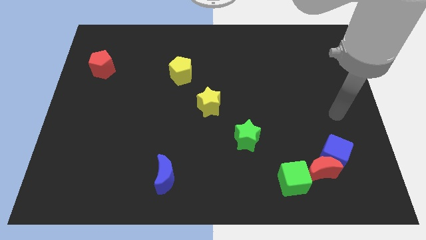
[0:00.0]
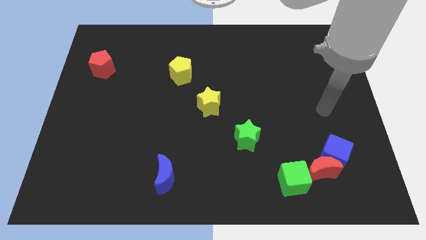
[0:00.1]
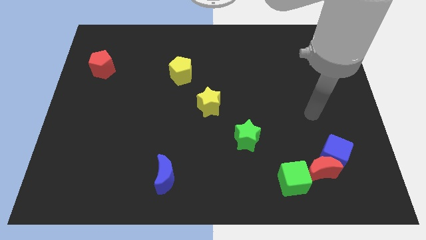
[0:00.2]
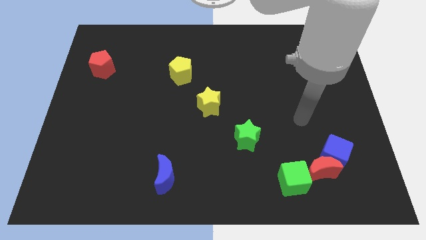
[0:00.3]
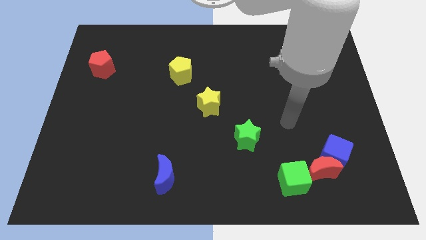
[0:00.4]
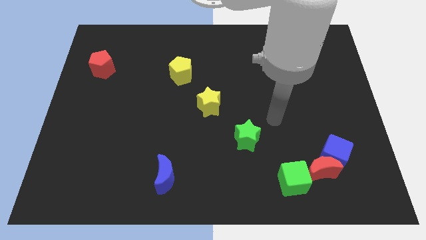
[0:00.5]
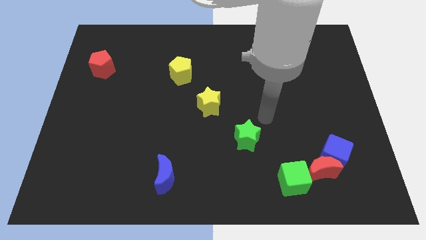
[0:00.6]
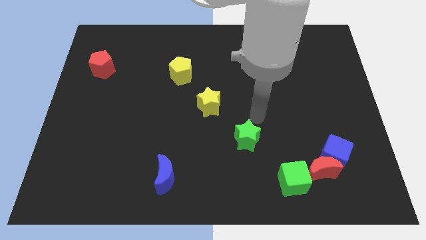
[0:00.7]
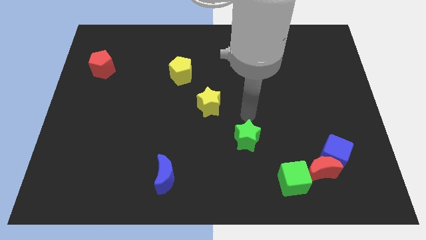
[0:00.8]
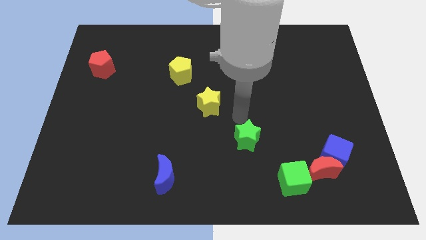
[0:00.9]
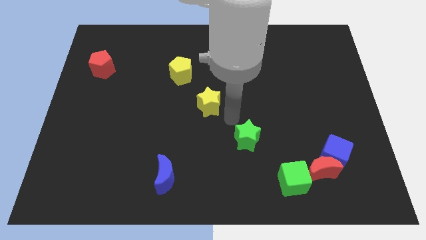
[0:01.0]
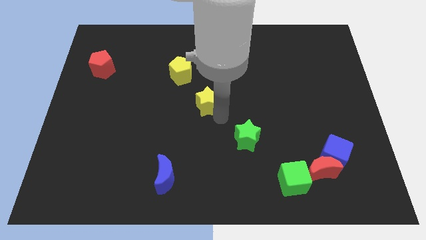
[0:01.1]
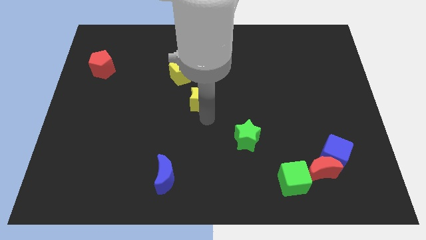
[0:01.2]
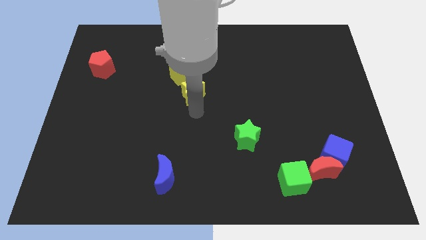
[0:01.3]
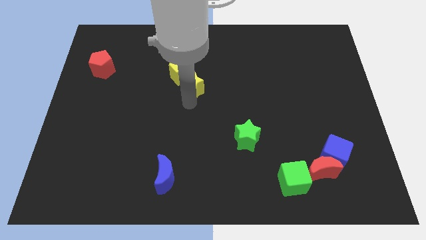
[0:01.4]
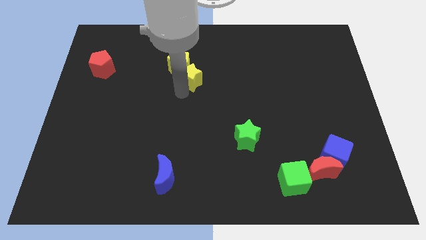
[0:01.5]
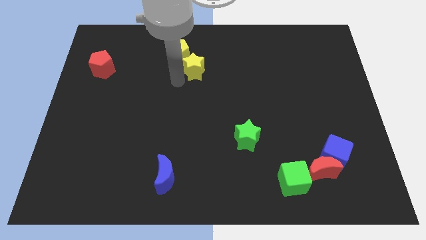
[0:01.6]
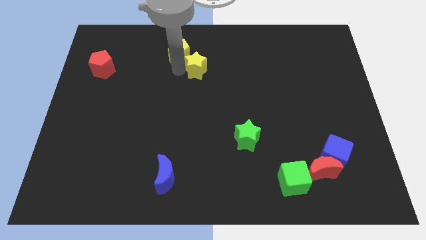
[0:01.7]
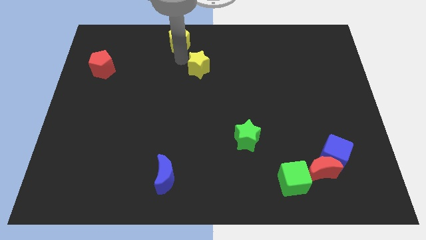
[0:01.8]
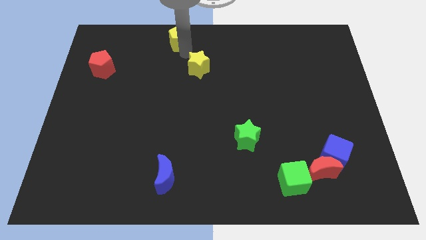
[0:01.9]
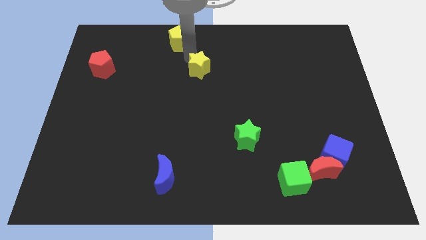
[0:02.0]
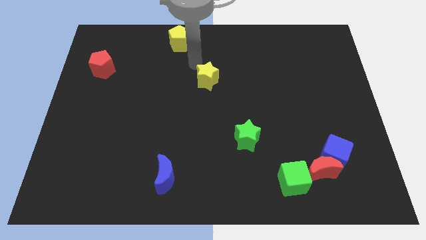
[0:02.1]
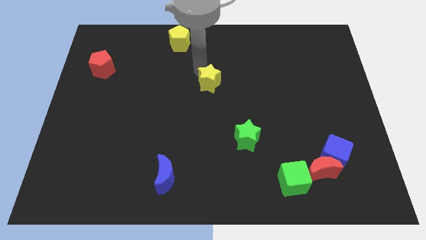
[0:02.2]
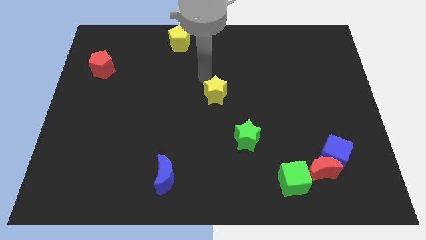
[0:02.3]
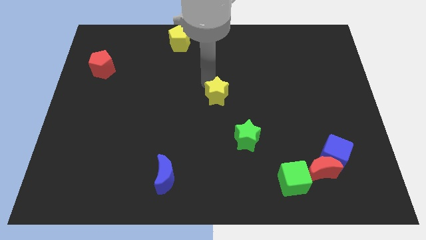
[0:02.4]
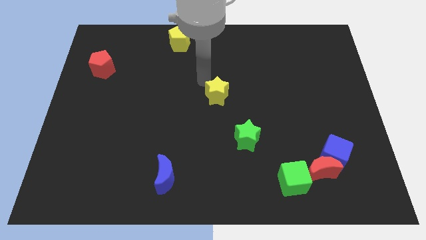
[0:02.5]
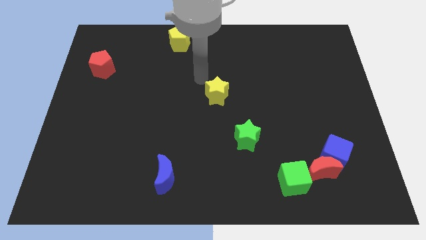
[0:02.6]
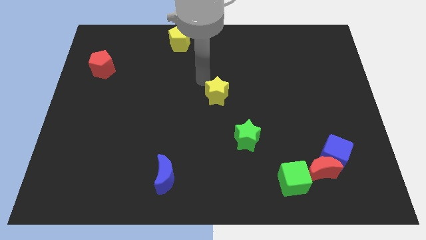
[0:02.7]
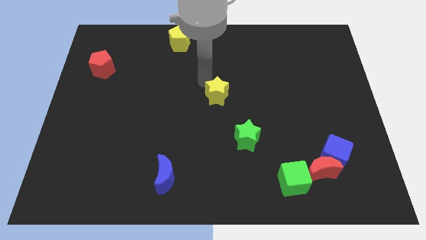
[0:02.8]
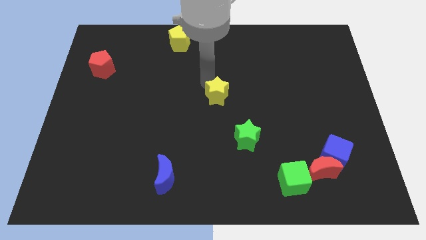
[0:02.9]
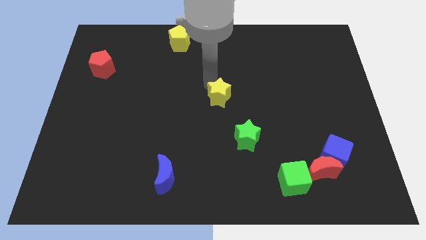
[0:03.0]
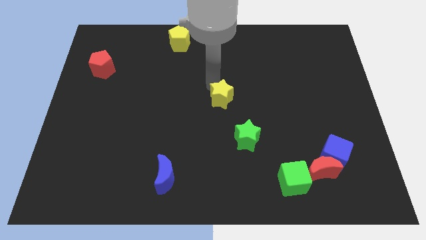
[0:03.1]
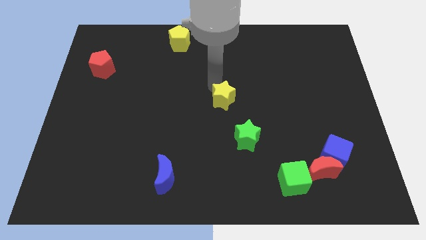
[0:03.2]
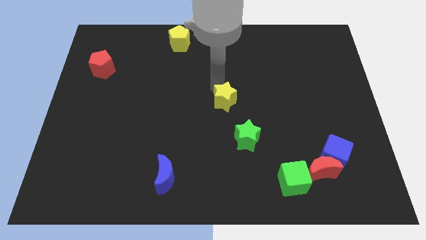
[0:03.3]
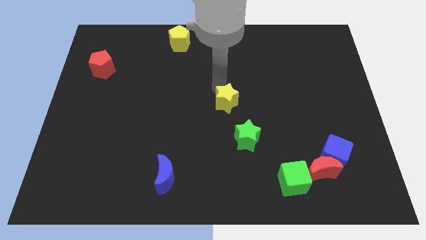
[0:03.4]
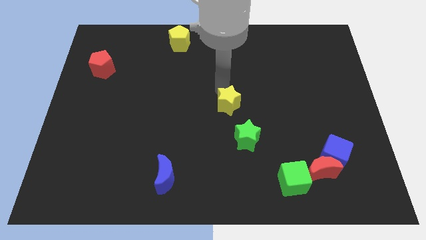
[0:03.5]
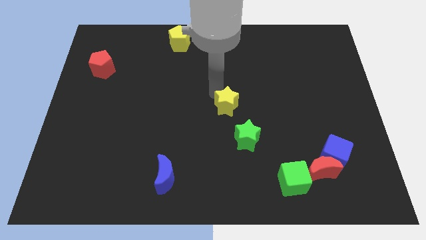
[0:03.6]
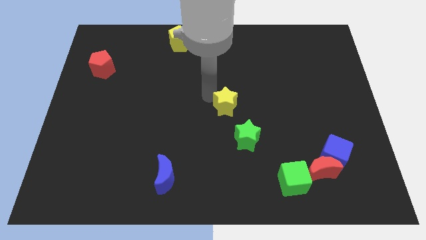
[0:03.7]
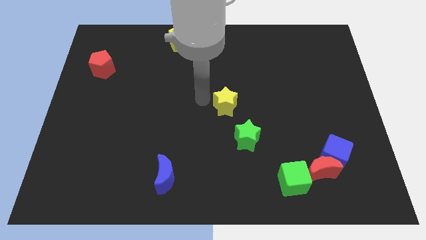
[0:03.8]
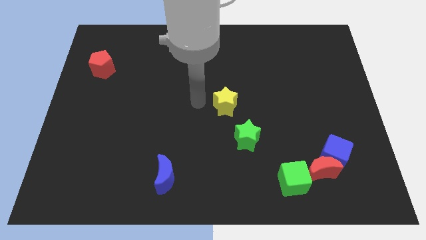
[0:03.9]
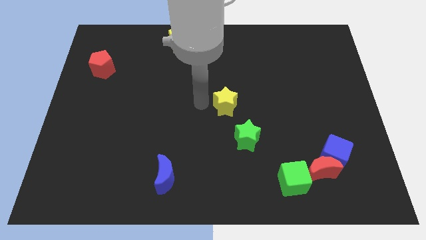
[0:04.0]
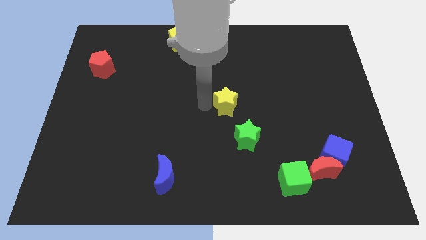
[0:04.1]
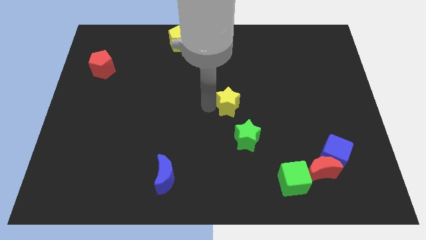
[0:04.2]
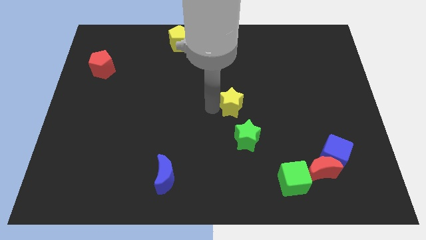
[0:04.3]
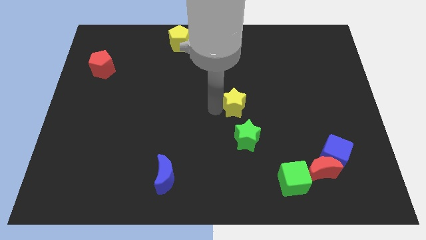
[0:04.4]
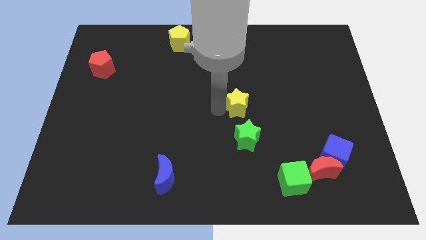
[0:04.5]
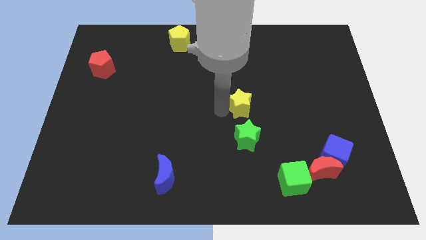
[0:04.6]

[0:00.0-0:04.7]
push the yellow star a bit to the right

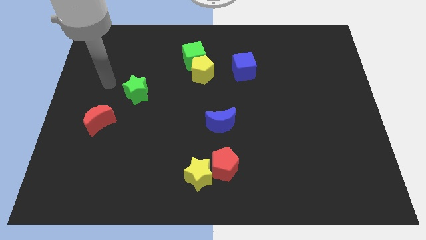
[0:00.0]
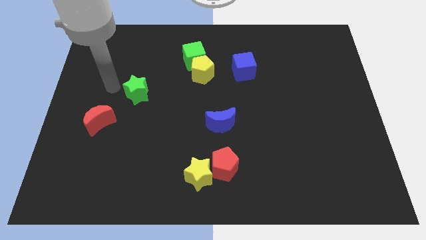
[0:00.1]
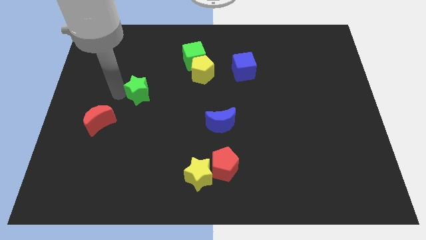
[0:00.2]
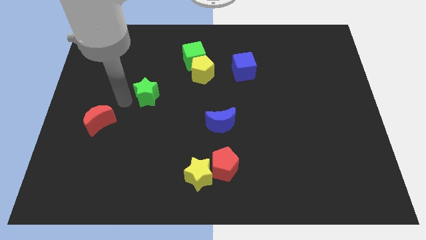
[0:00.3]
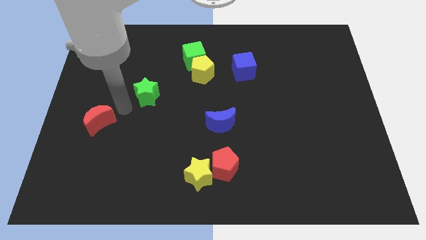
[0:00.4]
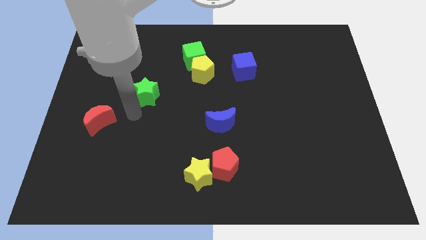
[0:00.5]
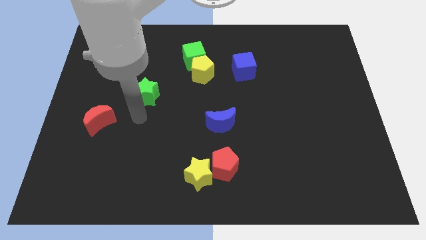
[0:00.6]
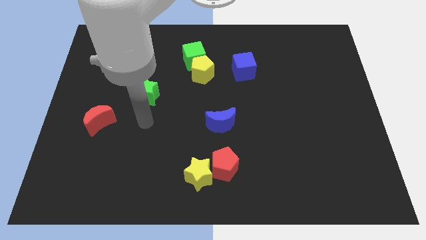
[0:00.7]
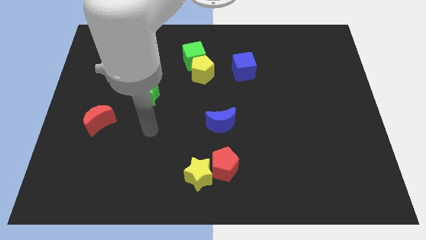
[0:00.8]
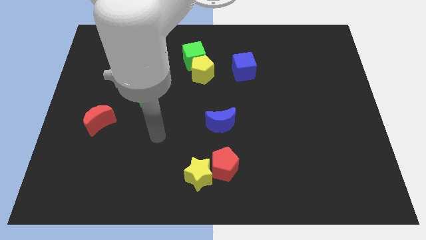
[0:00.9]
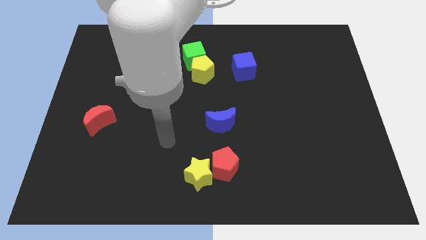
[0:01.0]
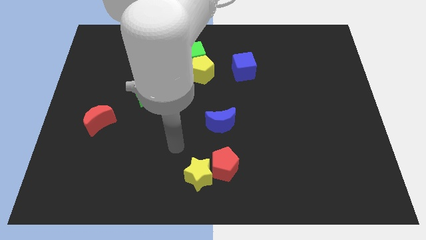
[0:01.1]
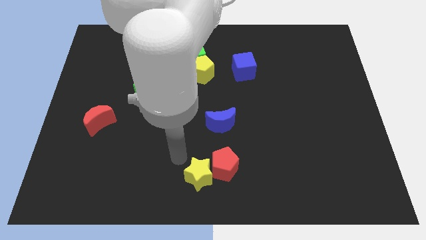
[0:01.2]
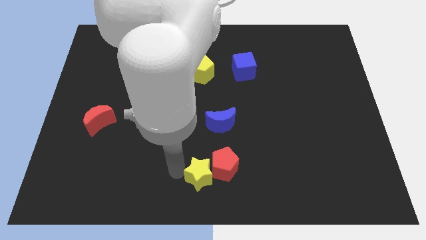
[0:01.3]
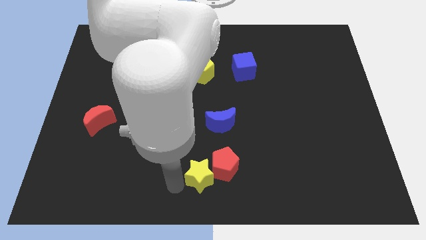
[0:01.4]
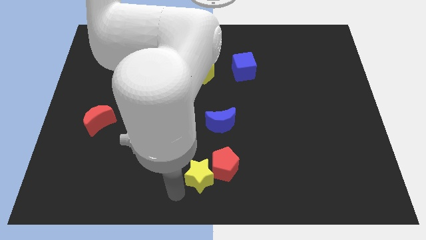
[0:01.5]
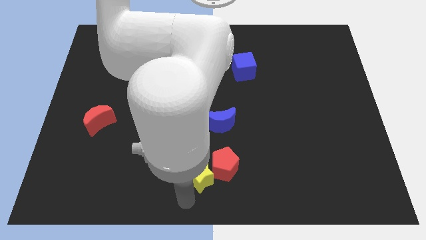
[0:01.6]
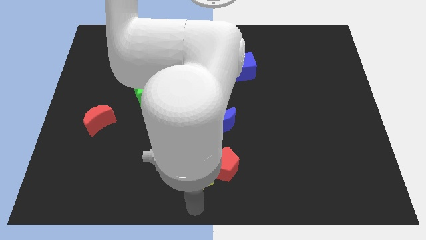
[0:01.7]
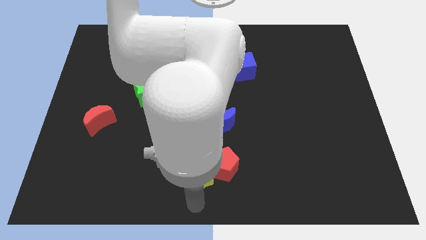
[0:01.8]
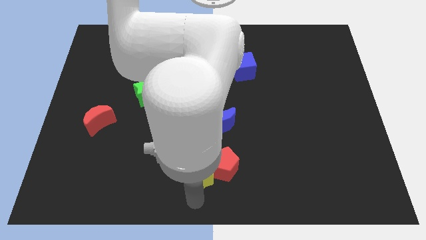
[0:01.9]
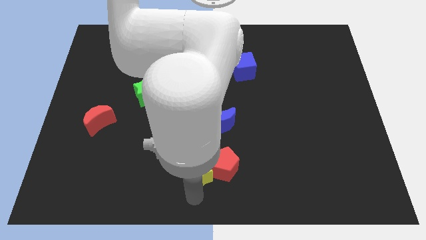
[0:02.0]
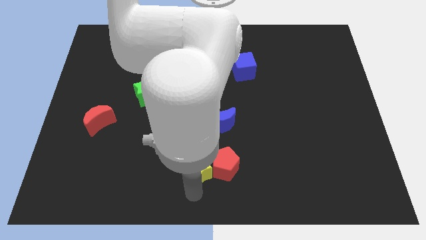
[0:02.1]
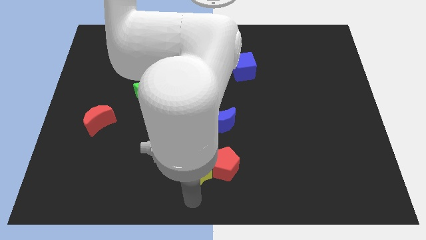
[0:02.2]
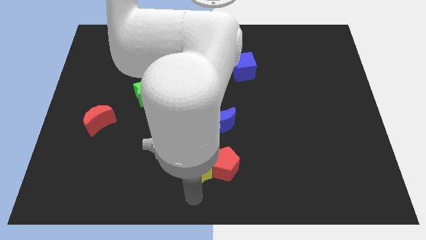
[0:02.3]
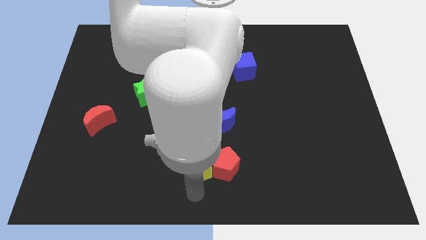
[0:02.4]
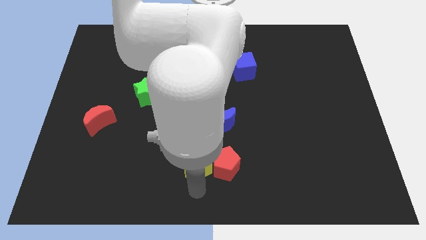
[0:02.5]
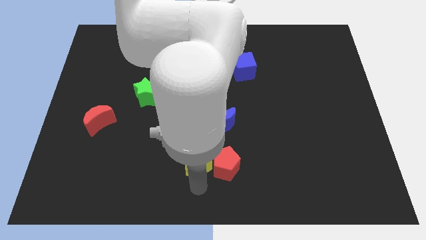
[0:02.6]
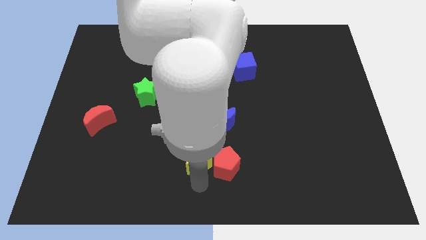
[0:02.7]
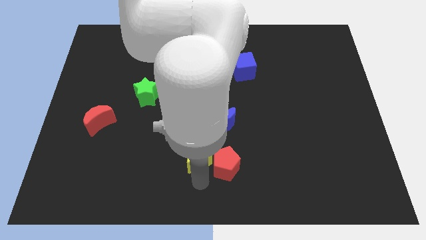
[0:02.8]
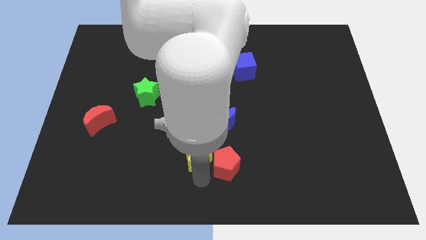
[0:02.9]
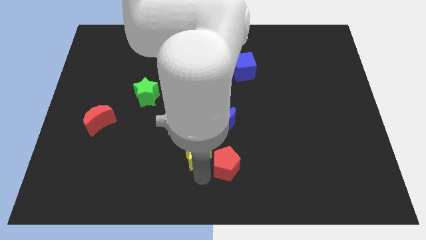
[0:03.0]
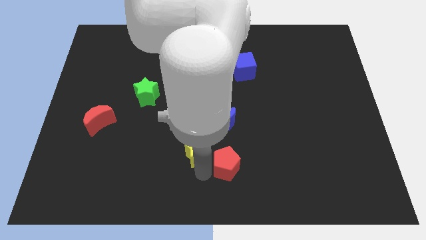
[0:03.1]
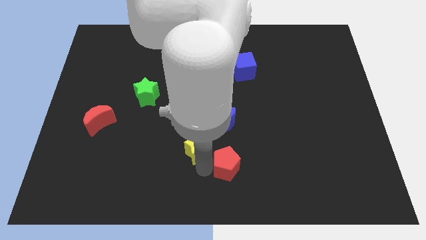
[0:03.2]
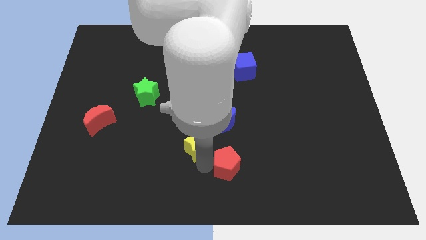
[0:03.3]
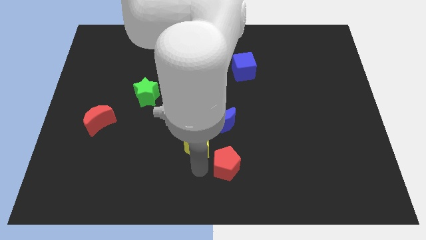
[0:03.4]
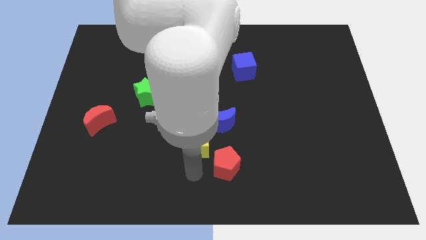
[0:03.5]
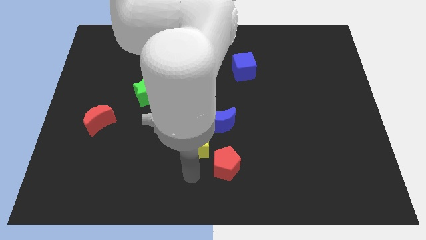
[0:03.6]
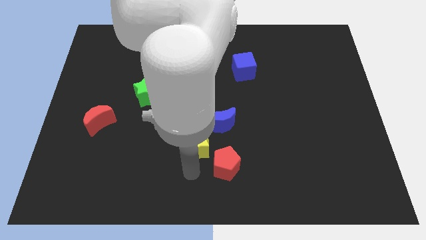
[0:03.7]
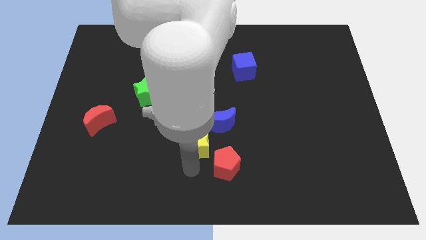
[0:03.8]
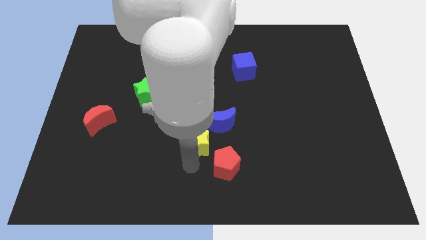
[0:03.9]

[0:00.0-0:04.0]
push the yellow star a little bit up
